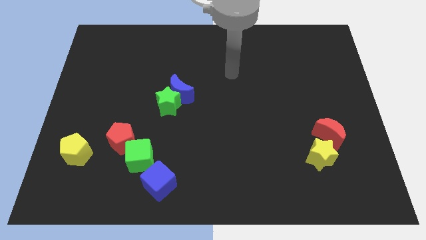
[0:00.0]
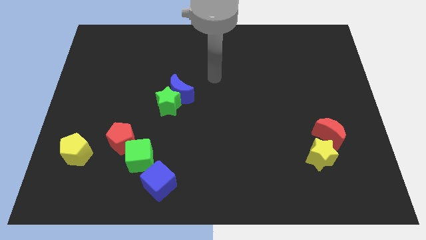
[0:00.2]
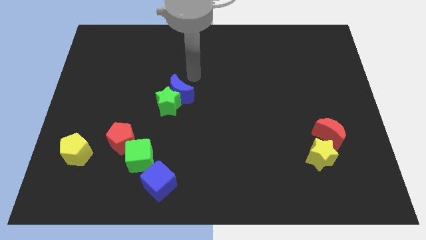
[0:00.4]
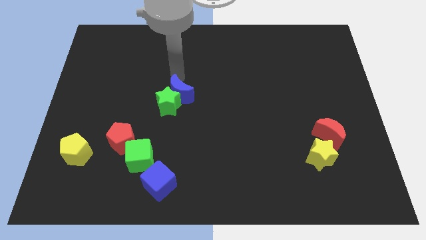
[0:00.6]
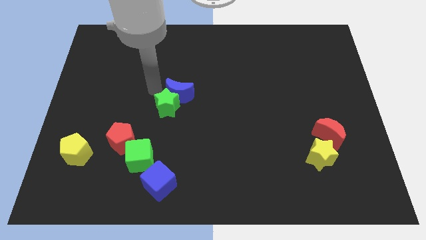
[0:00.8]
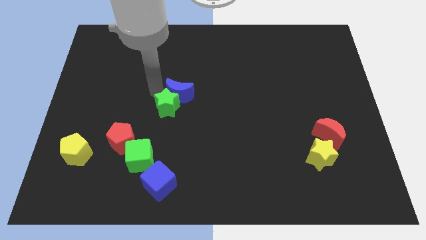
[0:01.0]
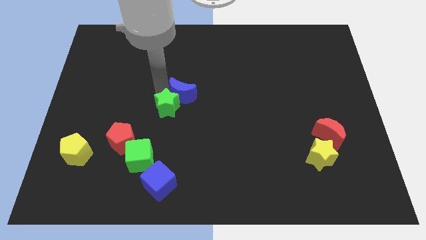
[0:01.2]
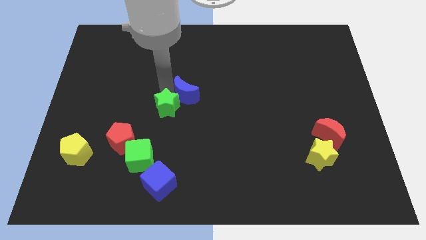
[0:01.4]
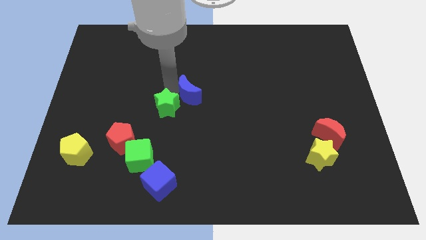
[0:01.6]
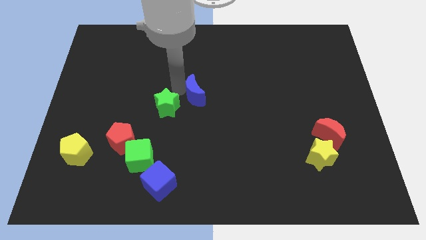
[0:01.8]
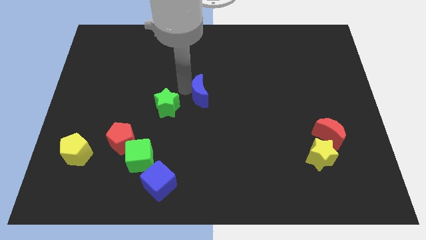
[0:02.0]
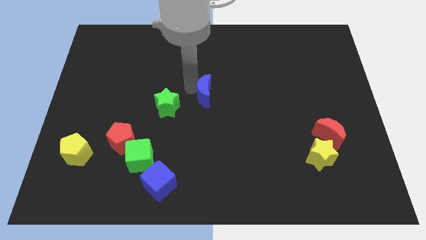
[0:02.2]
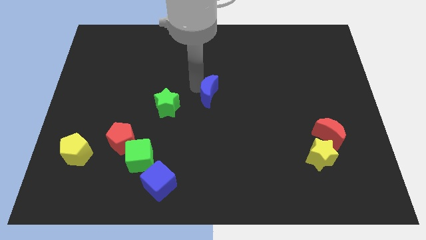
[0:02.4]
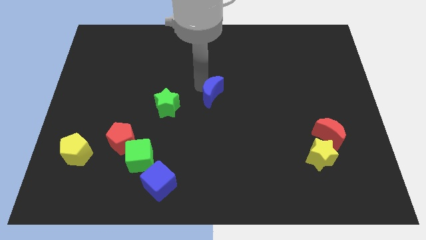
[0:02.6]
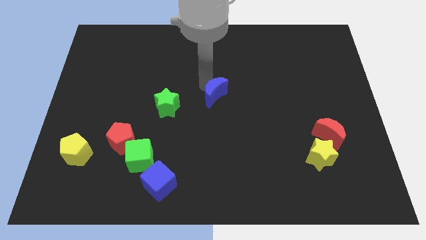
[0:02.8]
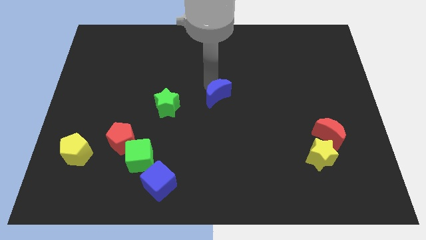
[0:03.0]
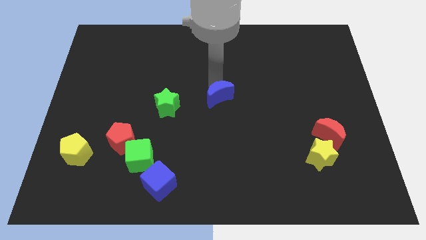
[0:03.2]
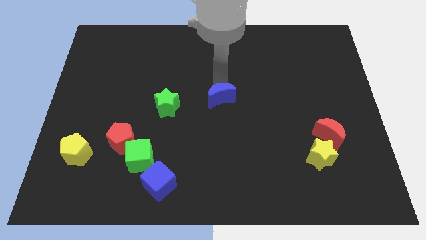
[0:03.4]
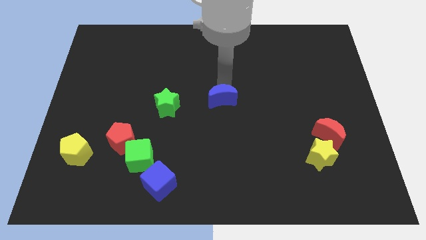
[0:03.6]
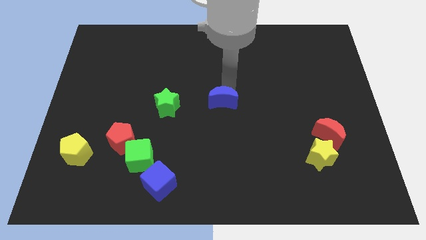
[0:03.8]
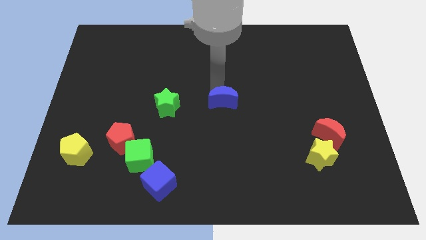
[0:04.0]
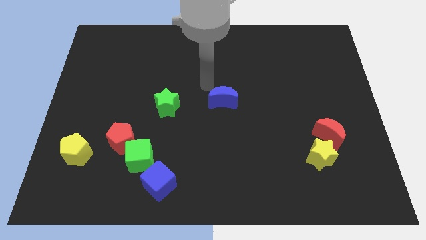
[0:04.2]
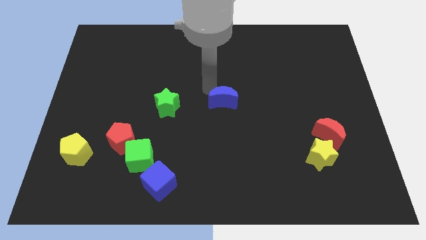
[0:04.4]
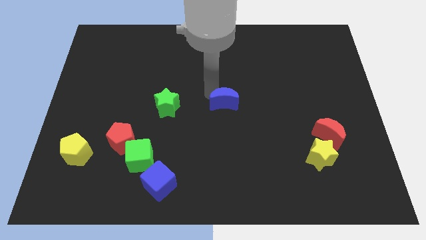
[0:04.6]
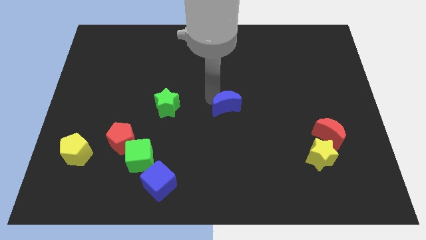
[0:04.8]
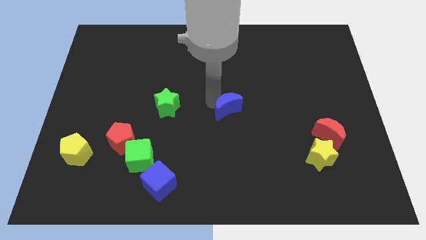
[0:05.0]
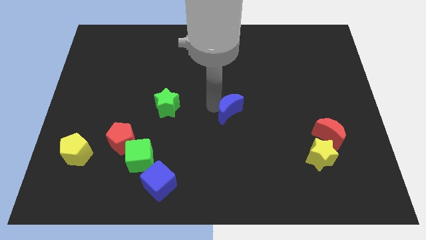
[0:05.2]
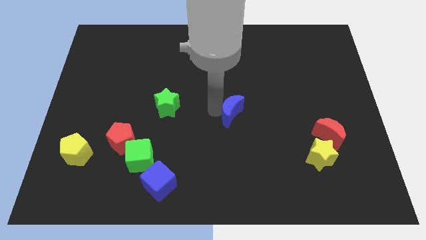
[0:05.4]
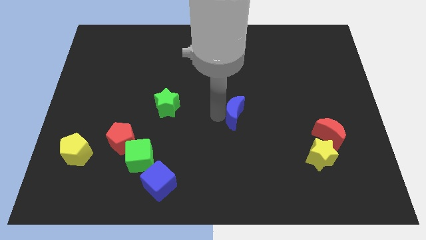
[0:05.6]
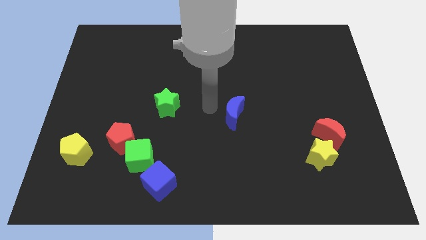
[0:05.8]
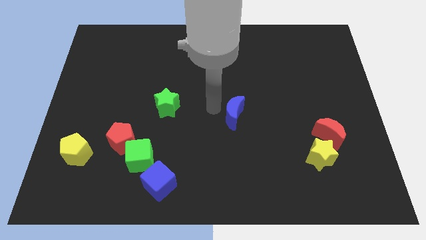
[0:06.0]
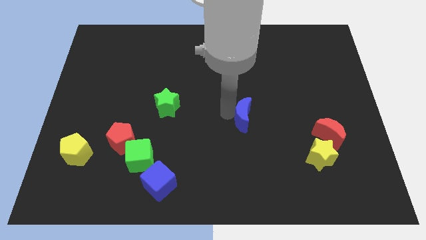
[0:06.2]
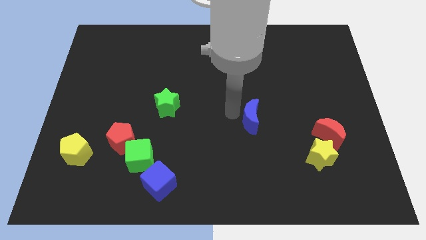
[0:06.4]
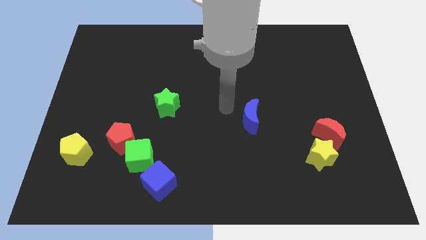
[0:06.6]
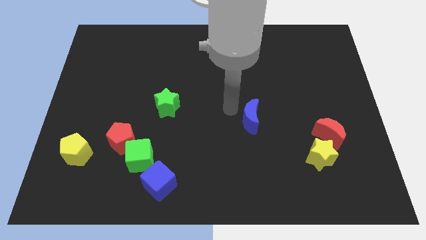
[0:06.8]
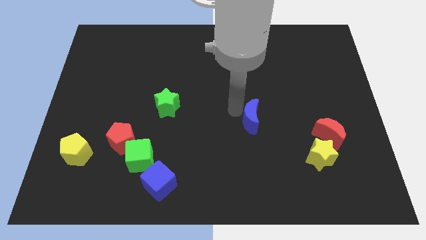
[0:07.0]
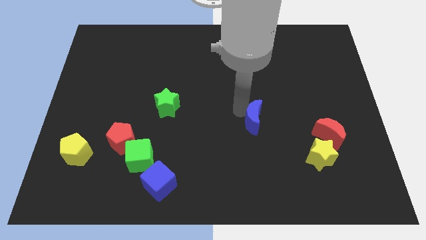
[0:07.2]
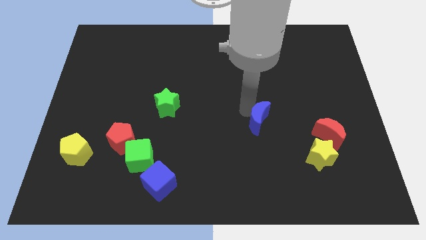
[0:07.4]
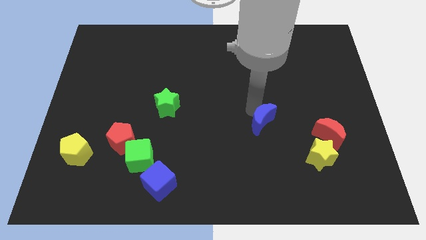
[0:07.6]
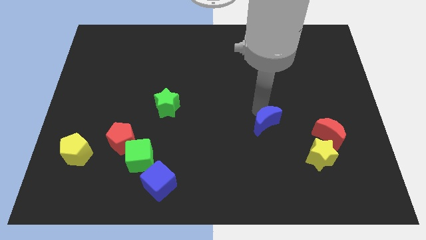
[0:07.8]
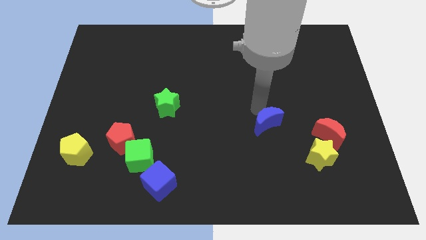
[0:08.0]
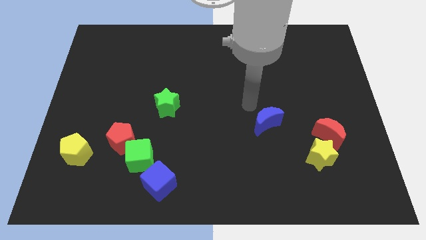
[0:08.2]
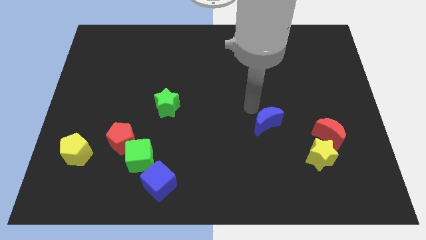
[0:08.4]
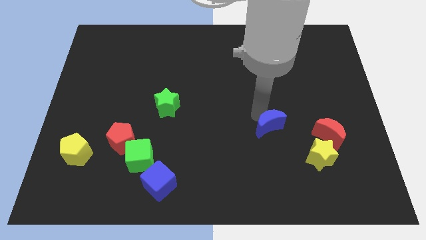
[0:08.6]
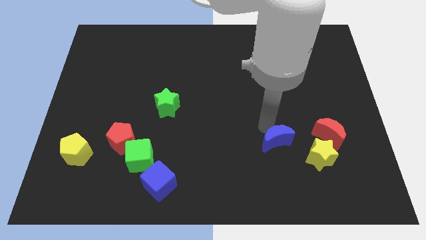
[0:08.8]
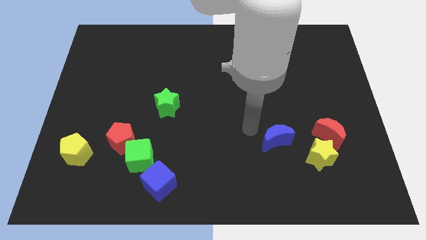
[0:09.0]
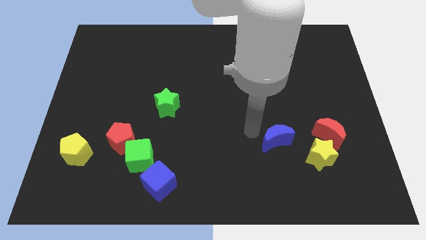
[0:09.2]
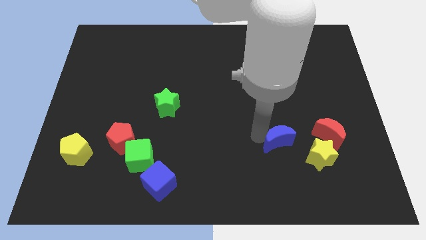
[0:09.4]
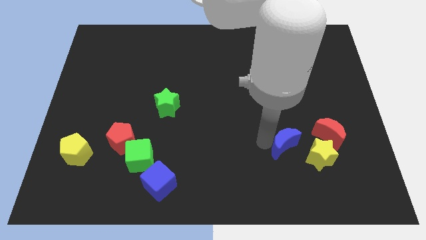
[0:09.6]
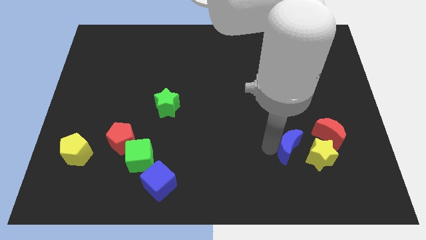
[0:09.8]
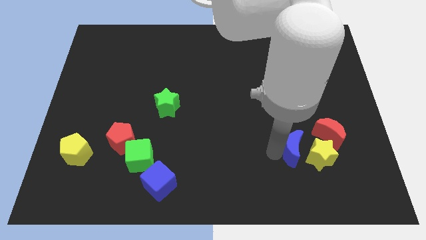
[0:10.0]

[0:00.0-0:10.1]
push the blue moon next to the yellow star
